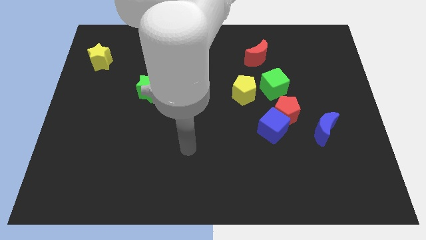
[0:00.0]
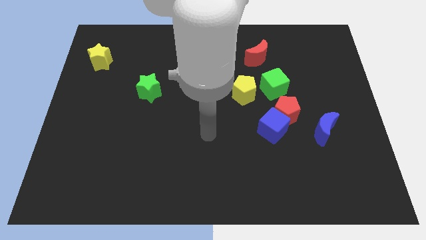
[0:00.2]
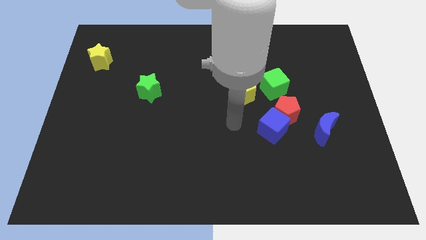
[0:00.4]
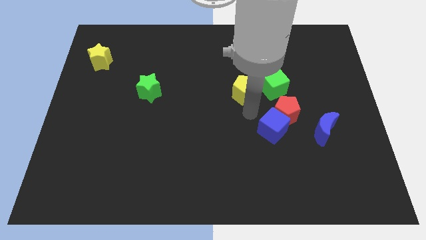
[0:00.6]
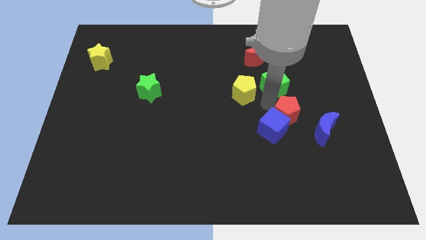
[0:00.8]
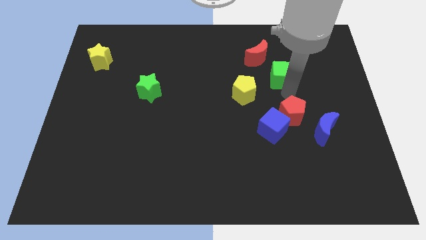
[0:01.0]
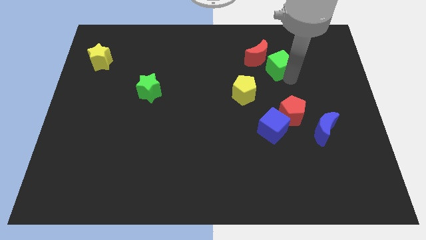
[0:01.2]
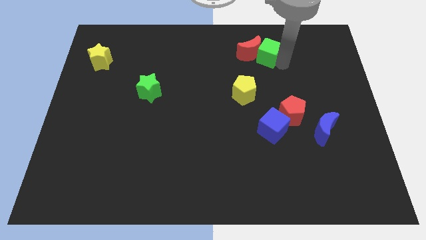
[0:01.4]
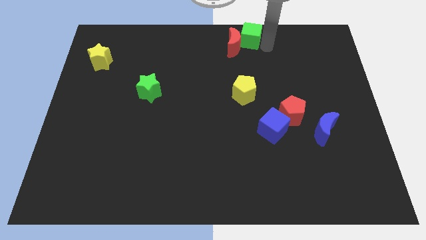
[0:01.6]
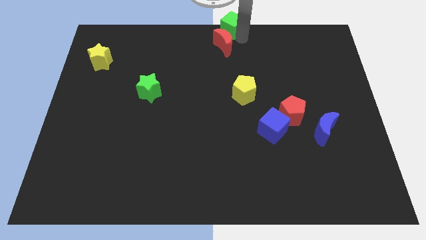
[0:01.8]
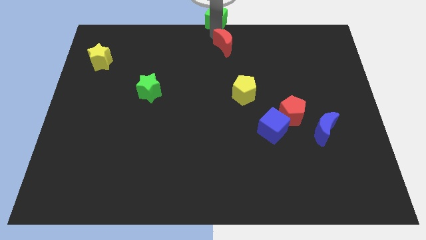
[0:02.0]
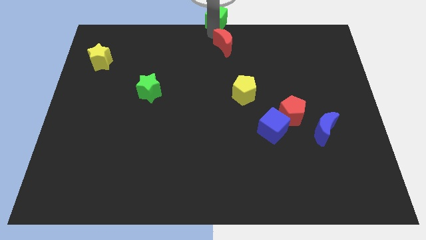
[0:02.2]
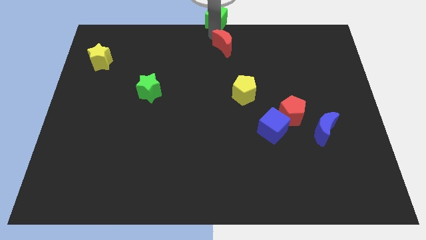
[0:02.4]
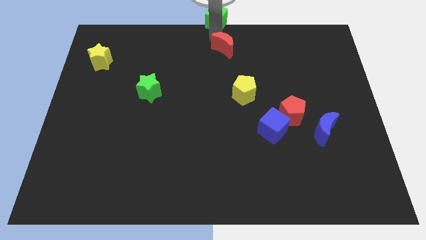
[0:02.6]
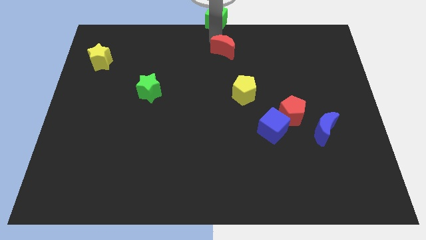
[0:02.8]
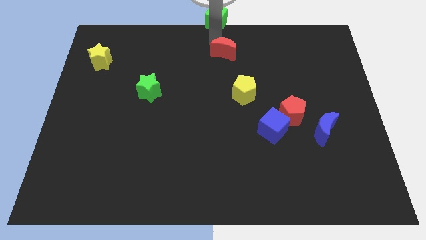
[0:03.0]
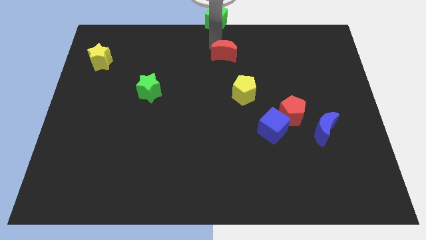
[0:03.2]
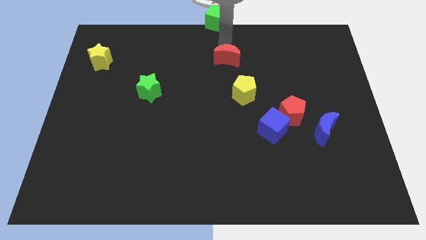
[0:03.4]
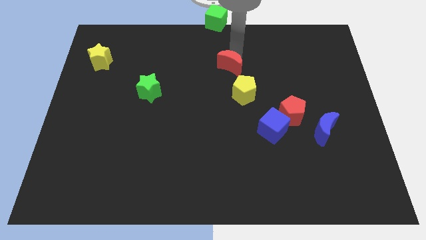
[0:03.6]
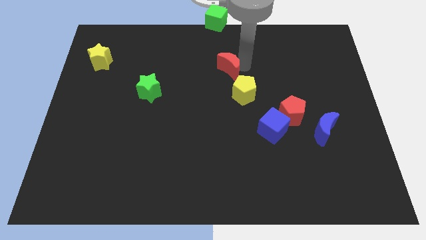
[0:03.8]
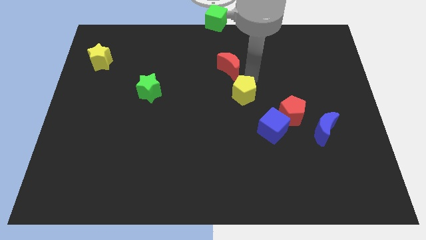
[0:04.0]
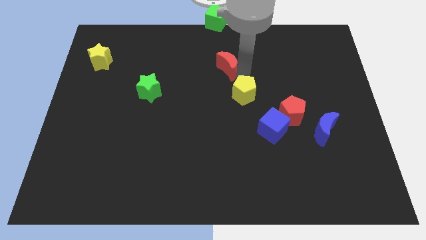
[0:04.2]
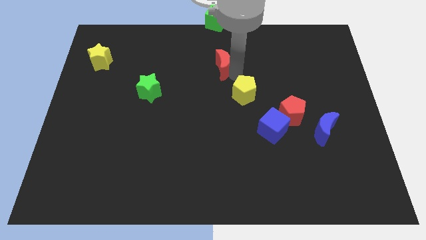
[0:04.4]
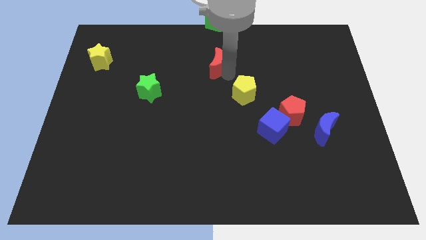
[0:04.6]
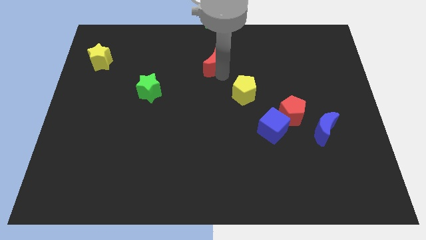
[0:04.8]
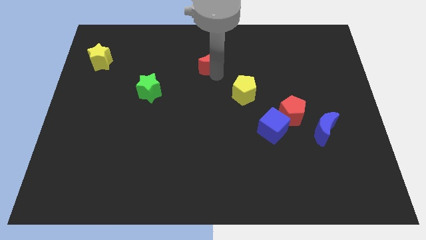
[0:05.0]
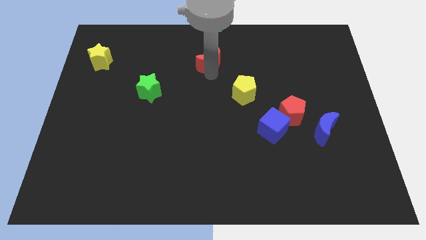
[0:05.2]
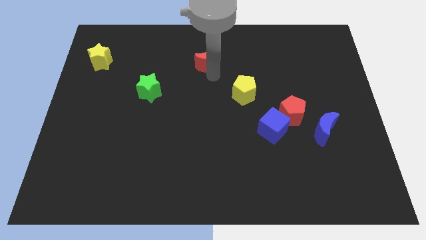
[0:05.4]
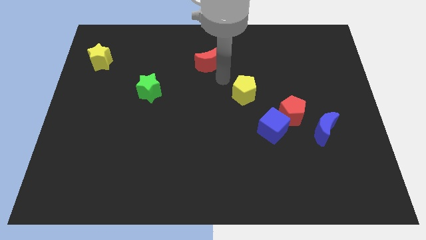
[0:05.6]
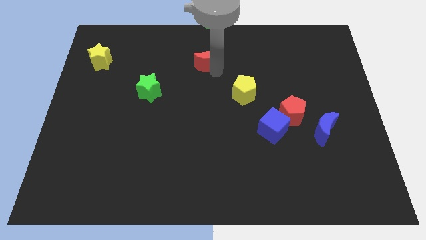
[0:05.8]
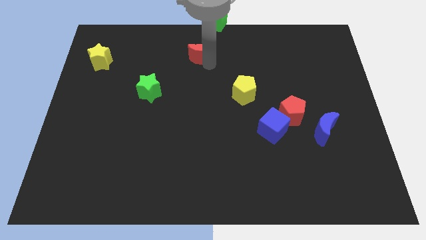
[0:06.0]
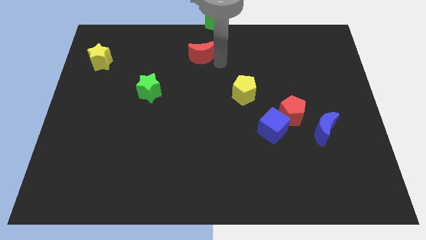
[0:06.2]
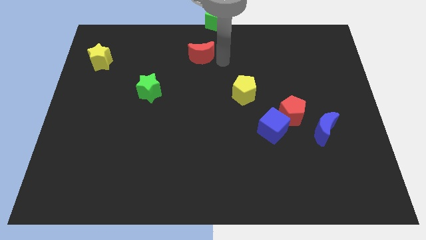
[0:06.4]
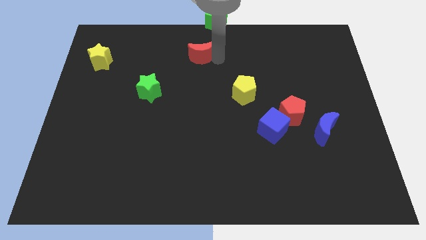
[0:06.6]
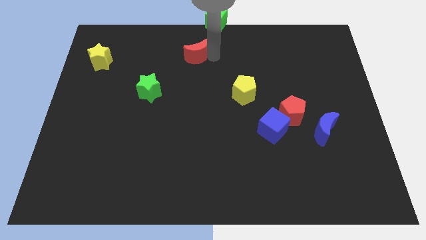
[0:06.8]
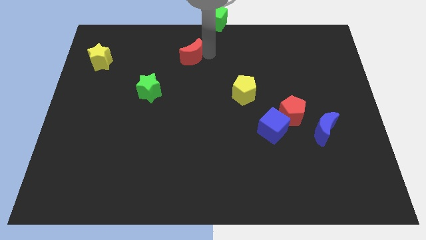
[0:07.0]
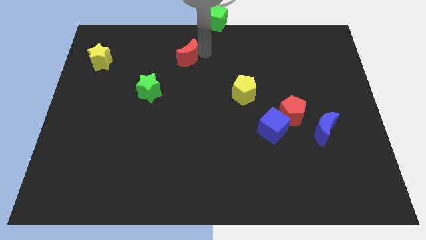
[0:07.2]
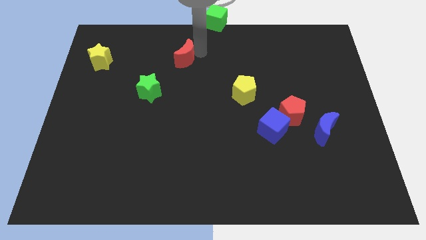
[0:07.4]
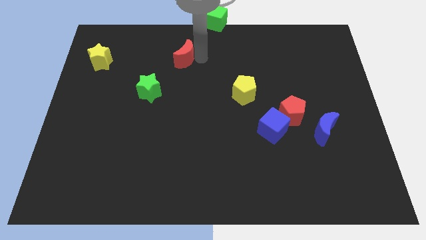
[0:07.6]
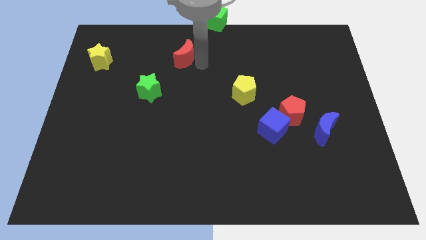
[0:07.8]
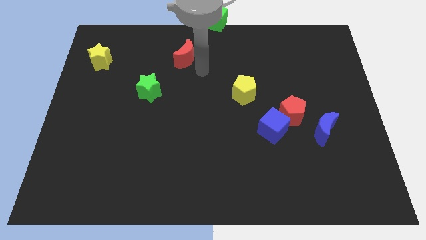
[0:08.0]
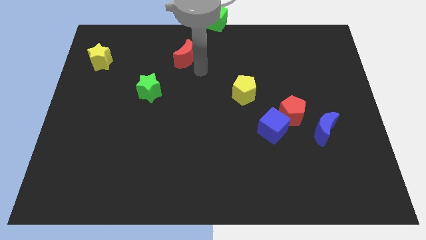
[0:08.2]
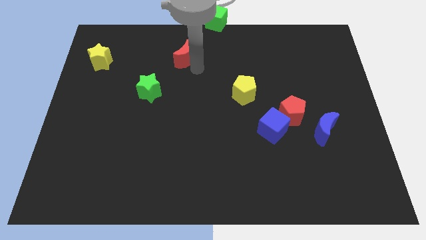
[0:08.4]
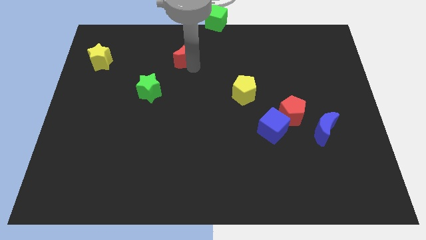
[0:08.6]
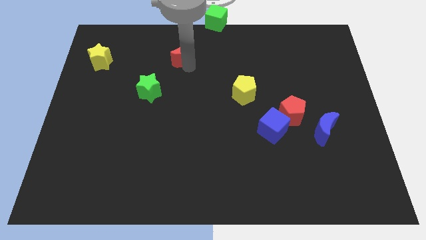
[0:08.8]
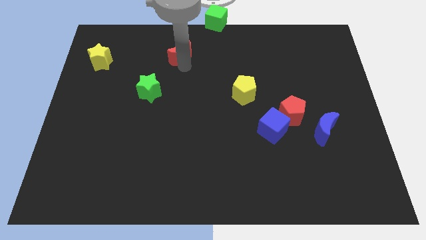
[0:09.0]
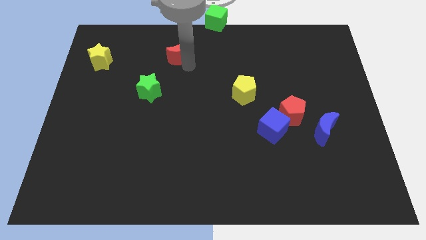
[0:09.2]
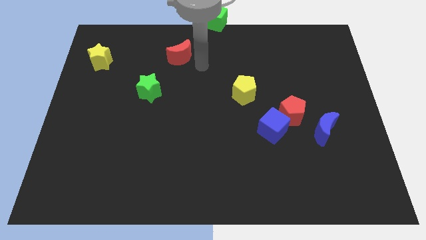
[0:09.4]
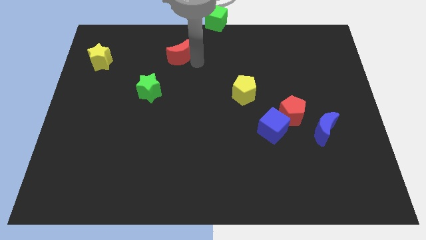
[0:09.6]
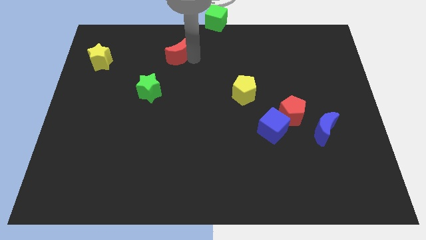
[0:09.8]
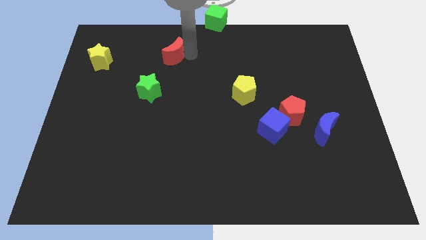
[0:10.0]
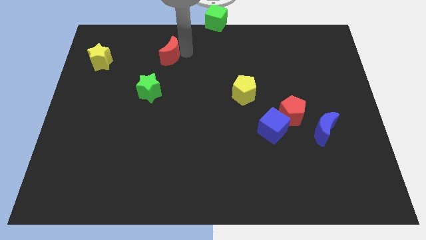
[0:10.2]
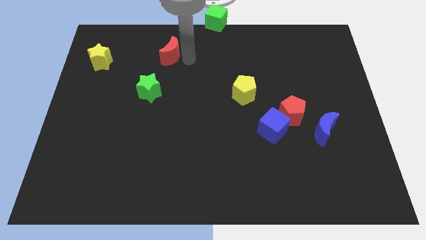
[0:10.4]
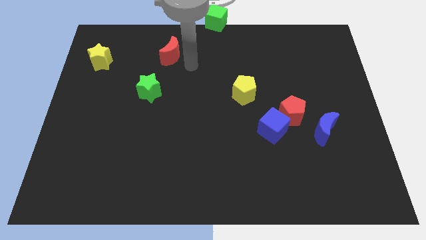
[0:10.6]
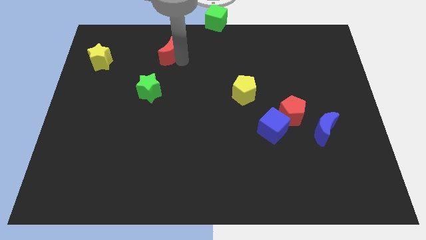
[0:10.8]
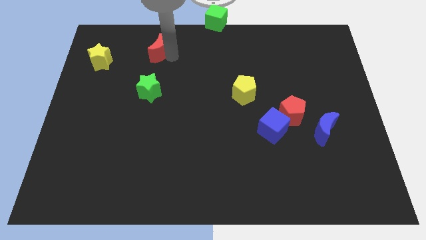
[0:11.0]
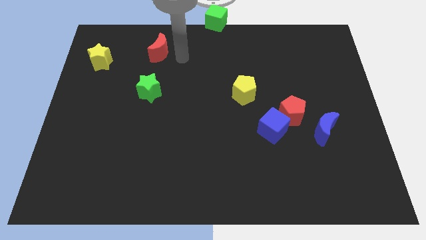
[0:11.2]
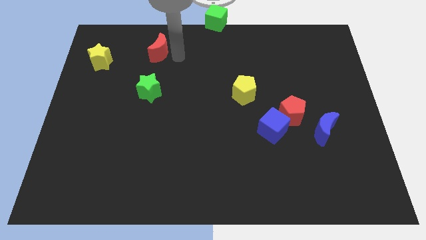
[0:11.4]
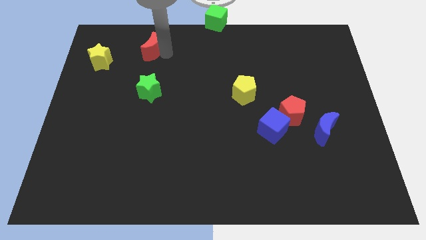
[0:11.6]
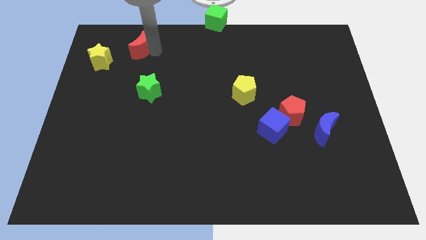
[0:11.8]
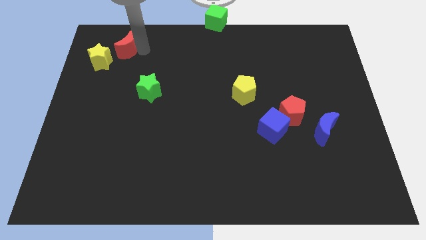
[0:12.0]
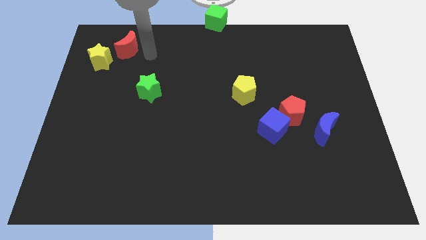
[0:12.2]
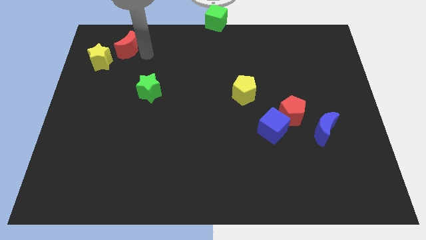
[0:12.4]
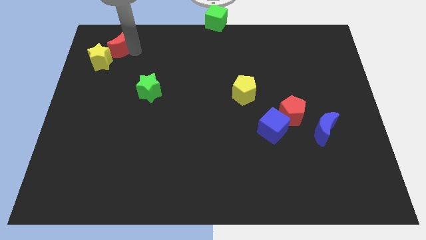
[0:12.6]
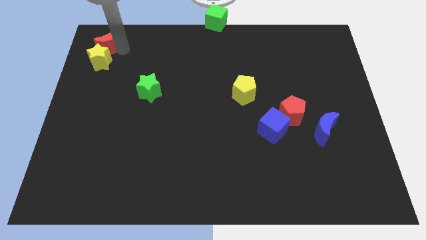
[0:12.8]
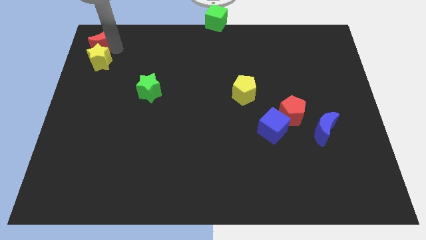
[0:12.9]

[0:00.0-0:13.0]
move the red moon to the top left corner
